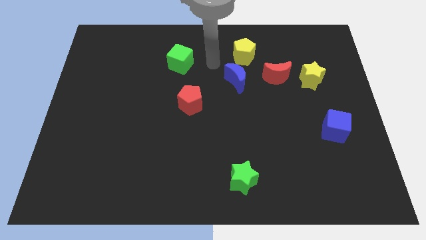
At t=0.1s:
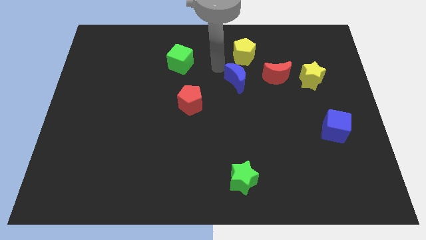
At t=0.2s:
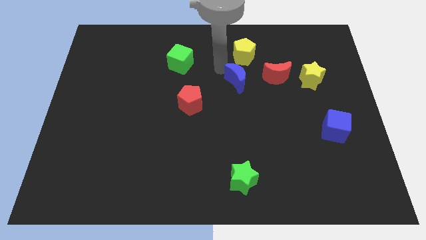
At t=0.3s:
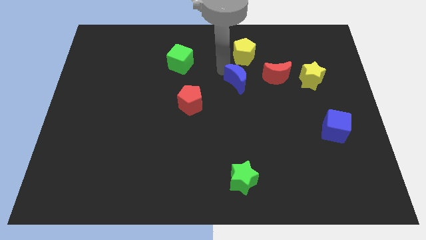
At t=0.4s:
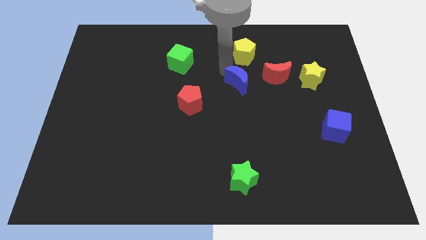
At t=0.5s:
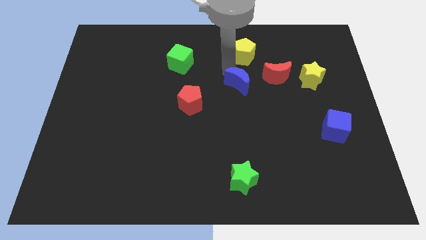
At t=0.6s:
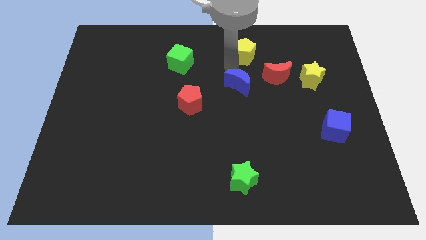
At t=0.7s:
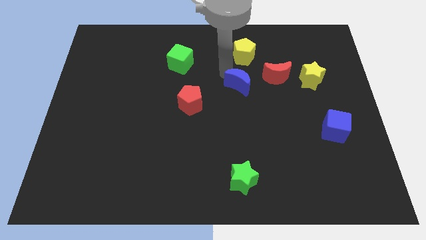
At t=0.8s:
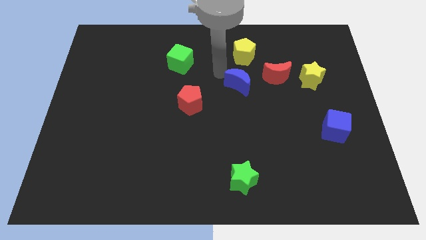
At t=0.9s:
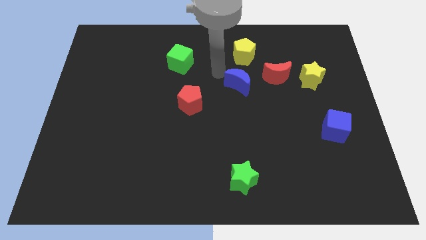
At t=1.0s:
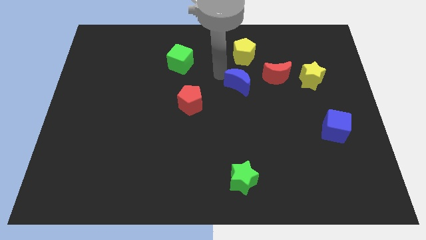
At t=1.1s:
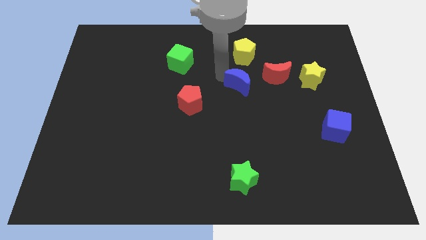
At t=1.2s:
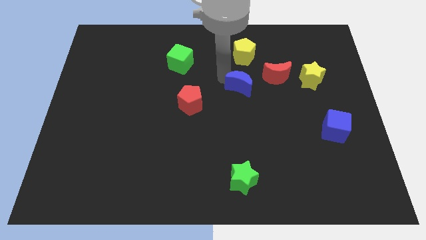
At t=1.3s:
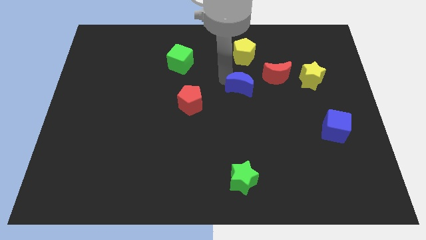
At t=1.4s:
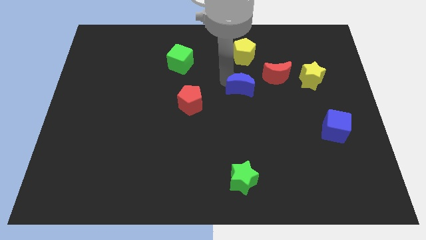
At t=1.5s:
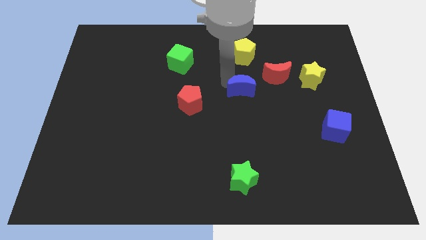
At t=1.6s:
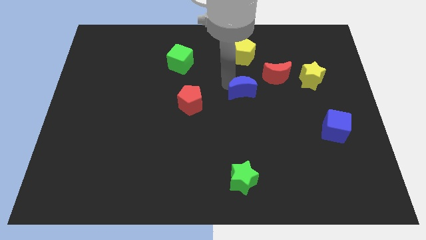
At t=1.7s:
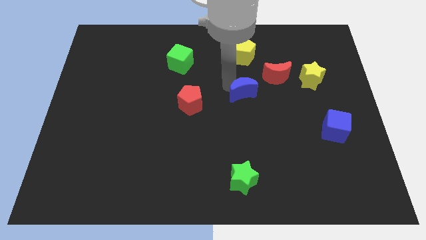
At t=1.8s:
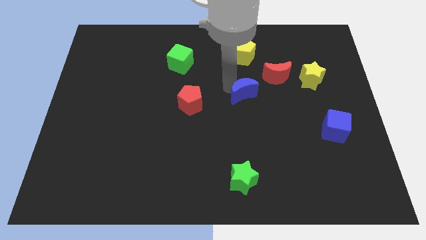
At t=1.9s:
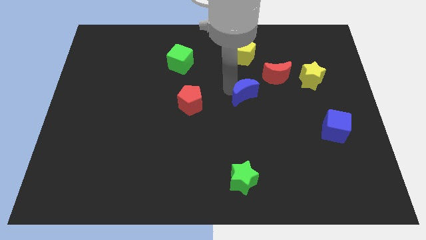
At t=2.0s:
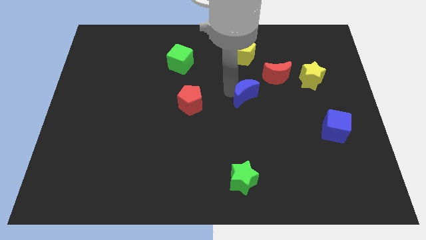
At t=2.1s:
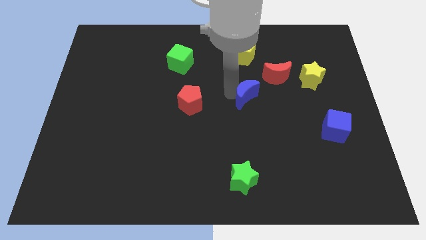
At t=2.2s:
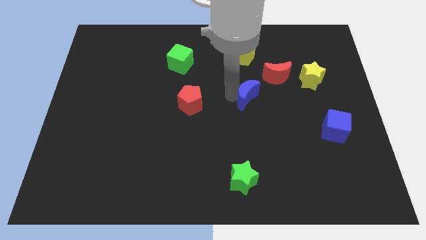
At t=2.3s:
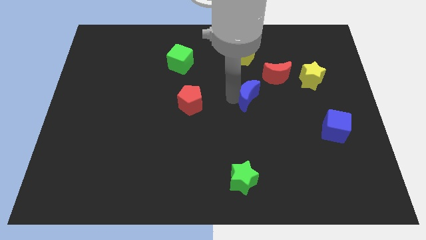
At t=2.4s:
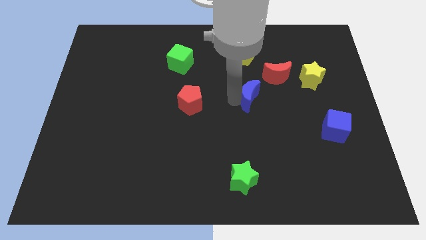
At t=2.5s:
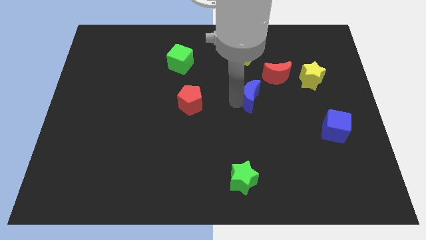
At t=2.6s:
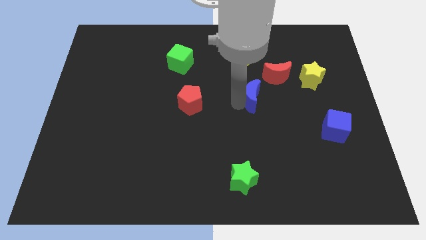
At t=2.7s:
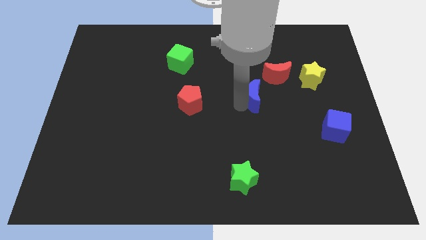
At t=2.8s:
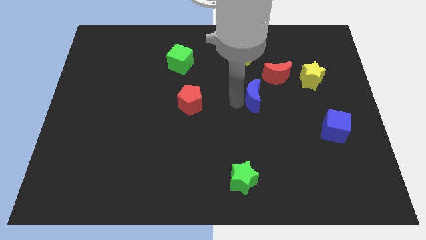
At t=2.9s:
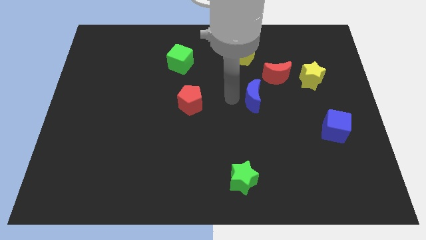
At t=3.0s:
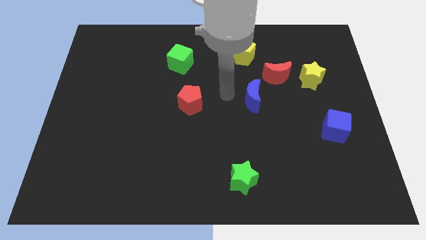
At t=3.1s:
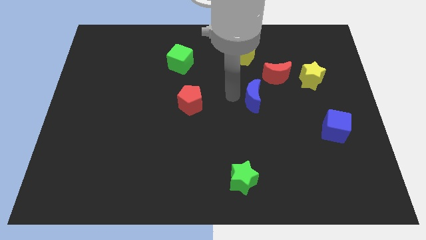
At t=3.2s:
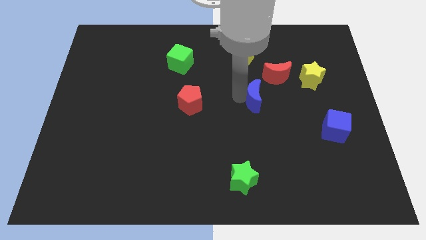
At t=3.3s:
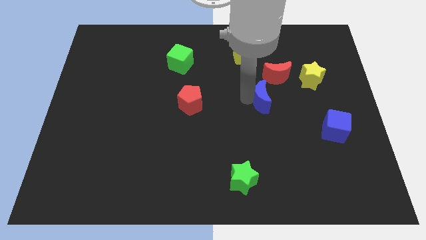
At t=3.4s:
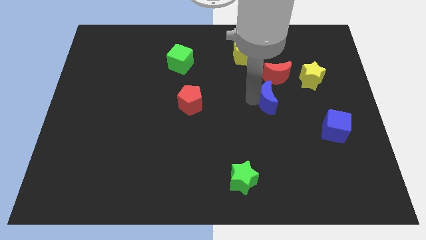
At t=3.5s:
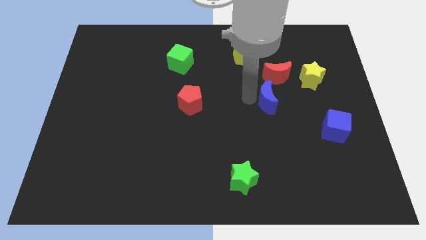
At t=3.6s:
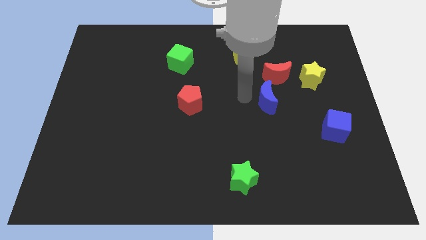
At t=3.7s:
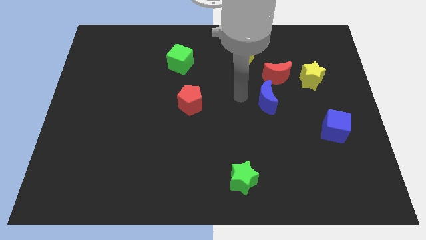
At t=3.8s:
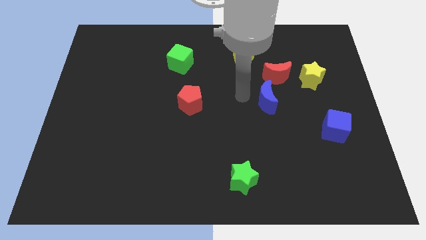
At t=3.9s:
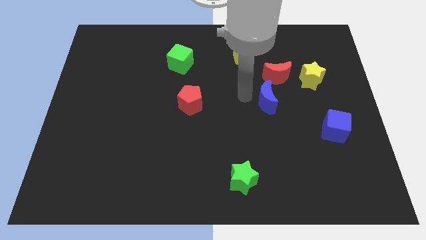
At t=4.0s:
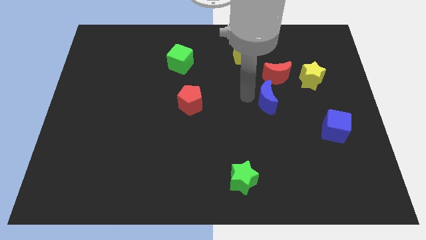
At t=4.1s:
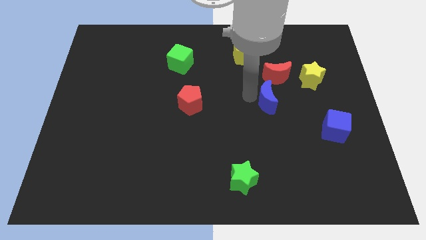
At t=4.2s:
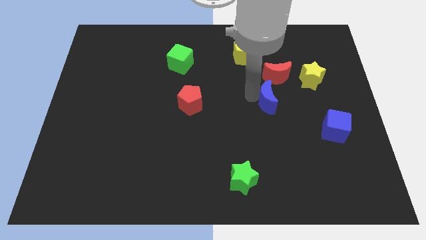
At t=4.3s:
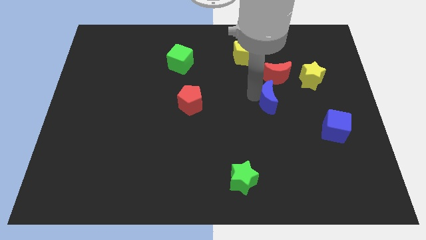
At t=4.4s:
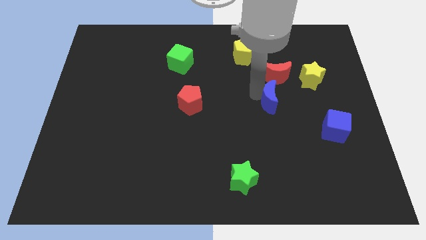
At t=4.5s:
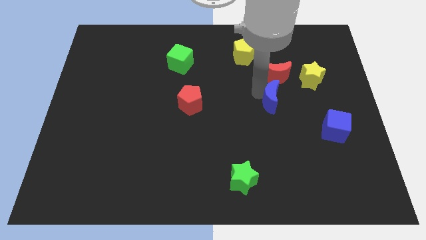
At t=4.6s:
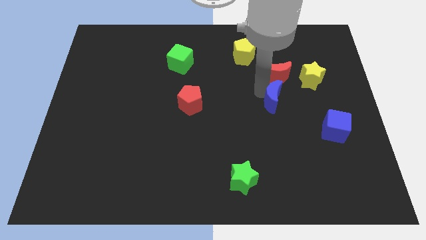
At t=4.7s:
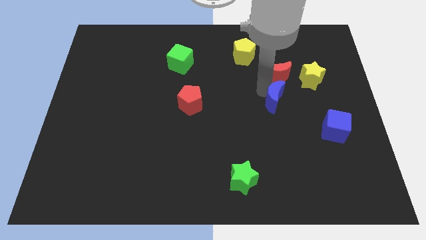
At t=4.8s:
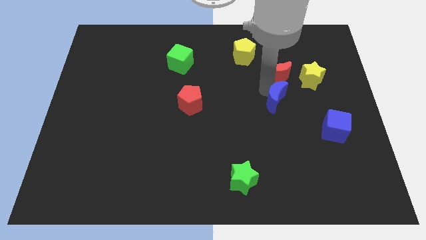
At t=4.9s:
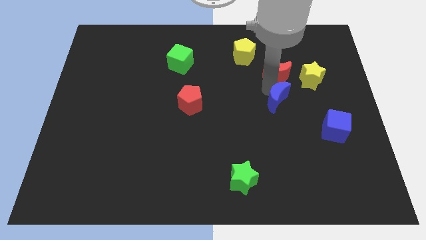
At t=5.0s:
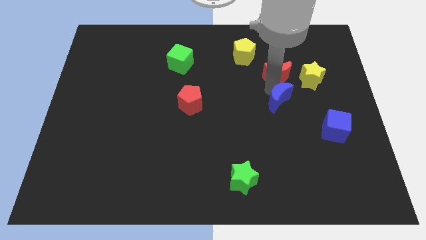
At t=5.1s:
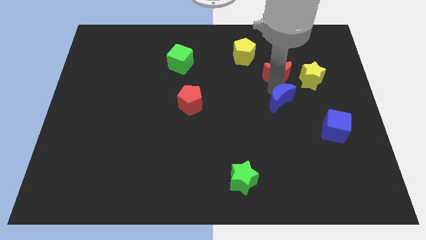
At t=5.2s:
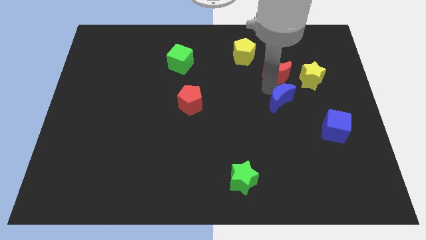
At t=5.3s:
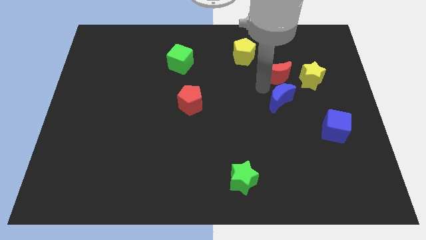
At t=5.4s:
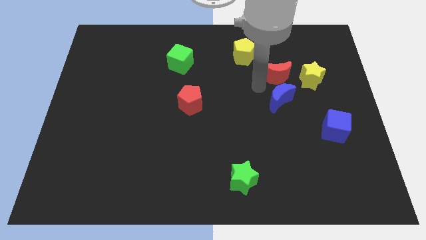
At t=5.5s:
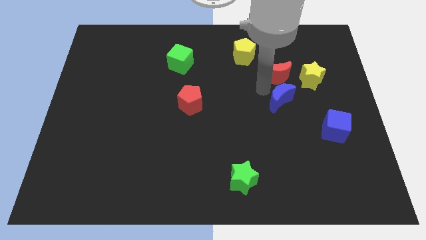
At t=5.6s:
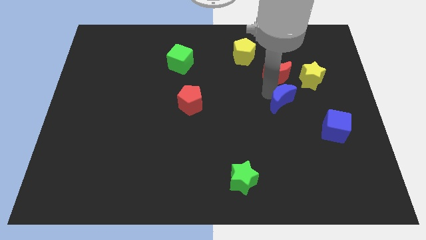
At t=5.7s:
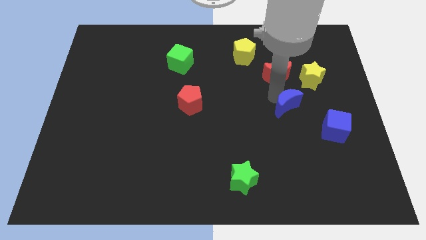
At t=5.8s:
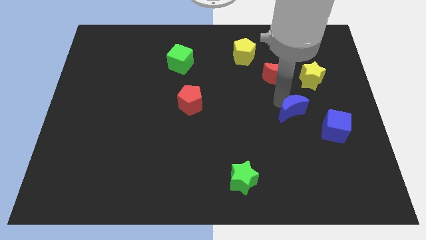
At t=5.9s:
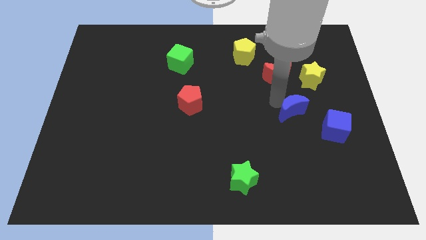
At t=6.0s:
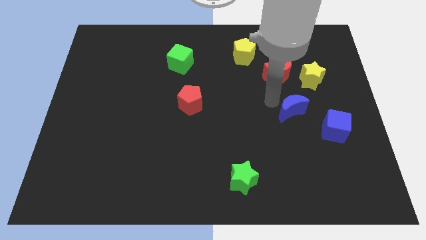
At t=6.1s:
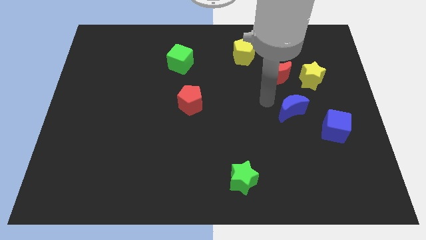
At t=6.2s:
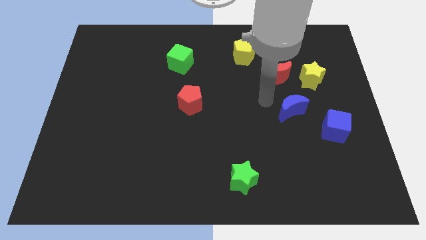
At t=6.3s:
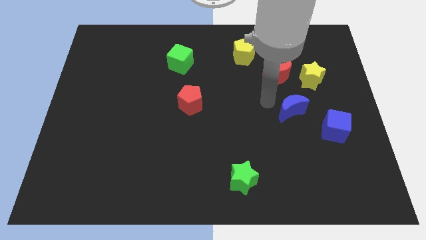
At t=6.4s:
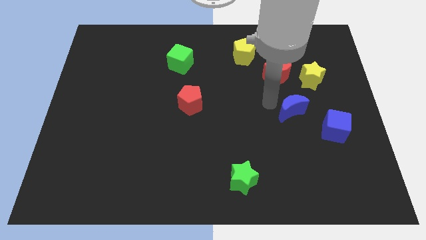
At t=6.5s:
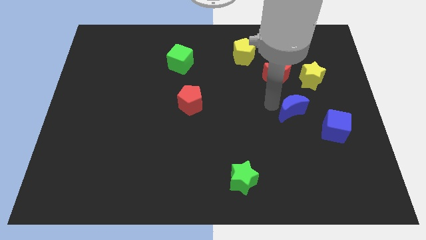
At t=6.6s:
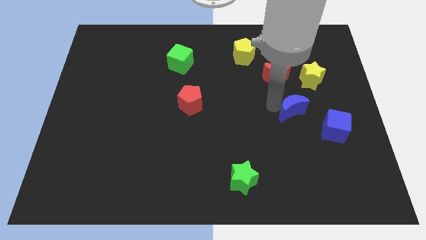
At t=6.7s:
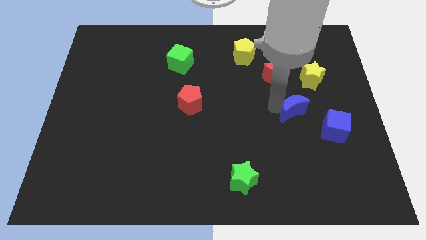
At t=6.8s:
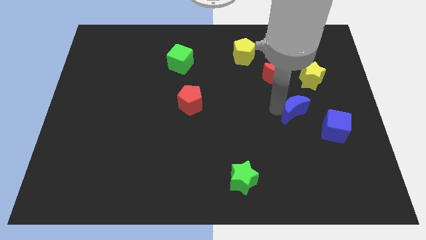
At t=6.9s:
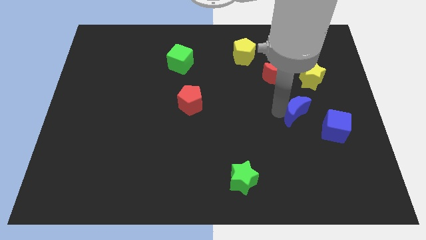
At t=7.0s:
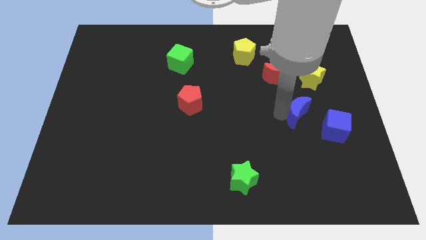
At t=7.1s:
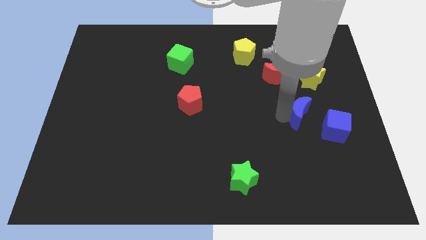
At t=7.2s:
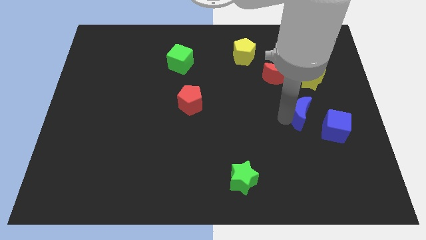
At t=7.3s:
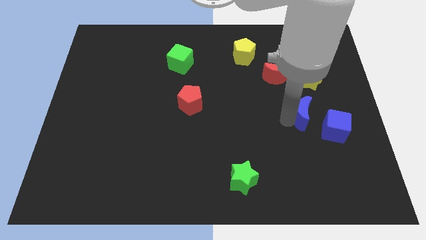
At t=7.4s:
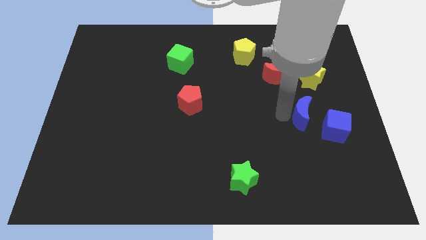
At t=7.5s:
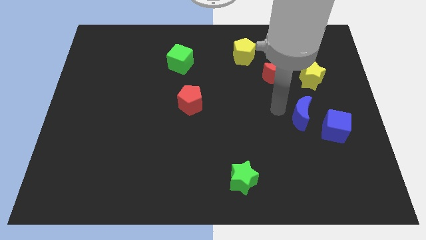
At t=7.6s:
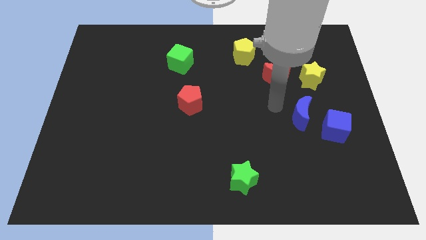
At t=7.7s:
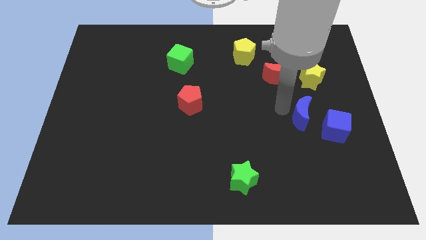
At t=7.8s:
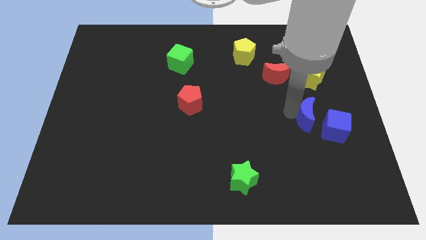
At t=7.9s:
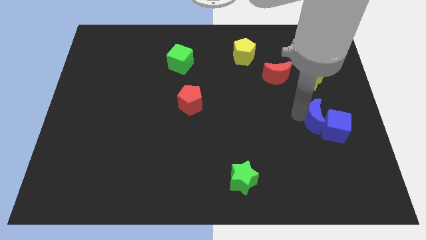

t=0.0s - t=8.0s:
move the blue moon next to the blue cube
